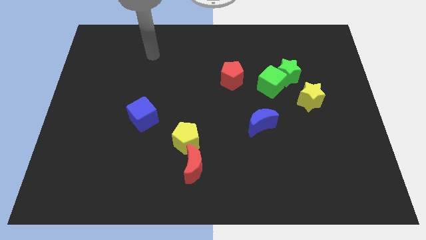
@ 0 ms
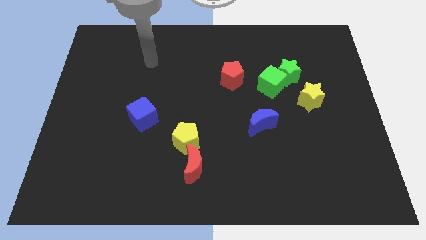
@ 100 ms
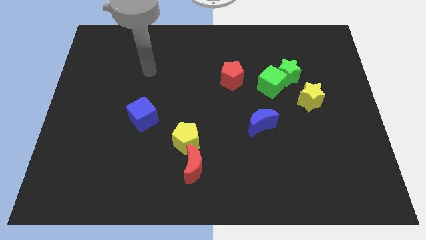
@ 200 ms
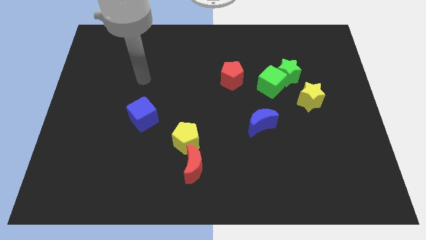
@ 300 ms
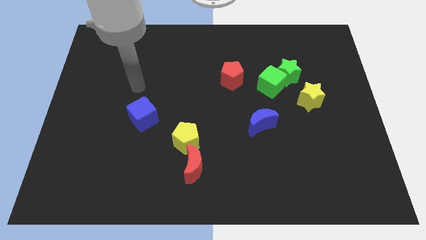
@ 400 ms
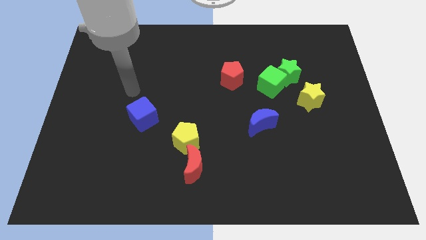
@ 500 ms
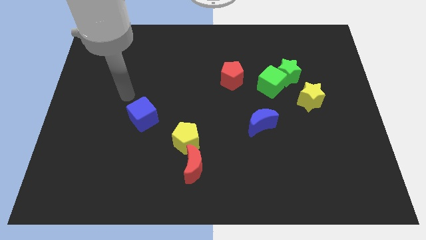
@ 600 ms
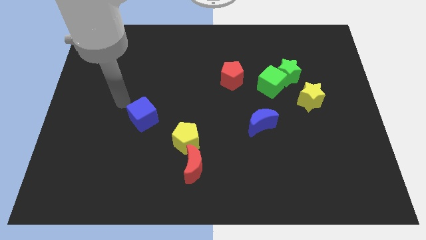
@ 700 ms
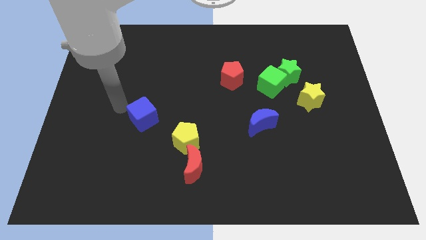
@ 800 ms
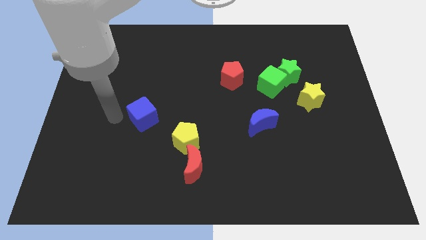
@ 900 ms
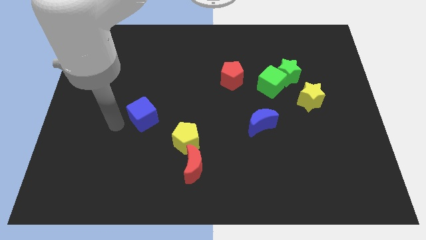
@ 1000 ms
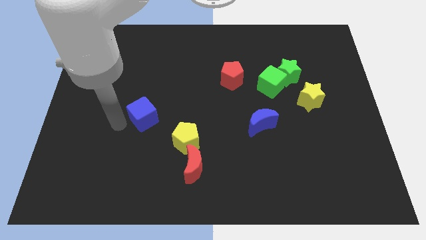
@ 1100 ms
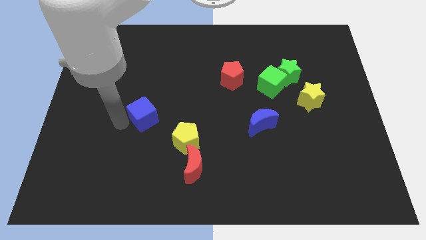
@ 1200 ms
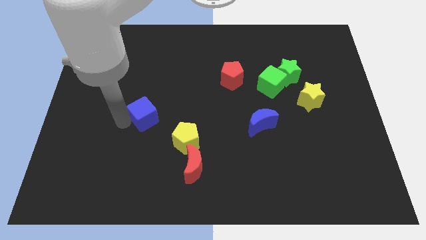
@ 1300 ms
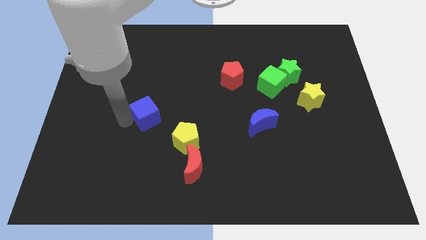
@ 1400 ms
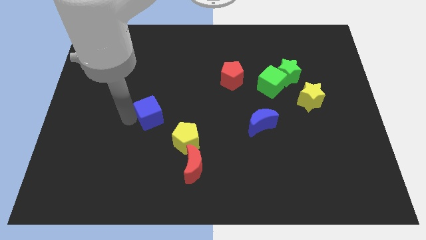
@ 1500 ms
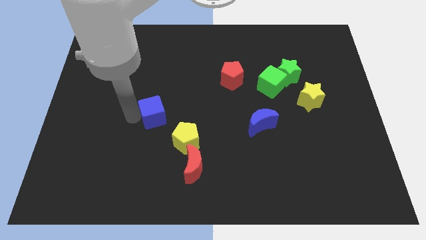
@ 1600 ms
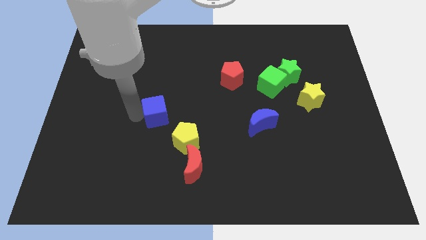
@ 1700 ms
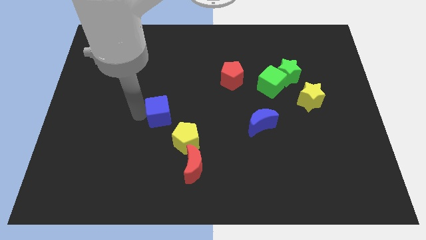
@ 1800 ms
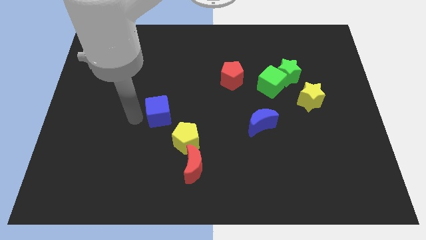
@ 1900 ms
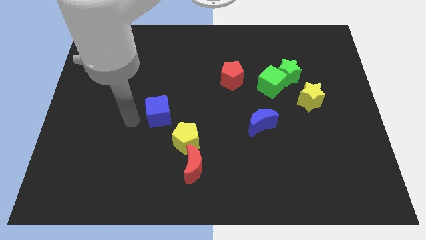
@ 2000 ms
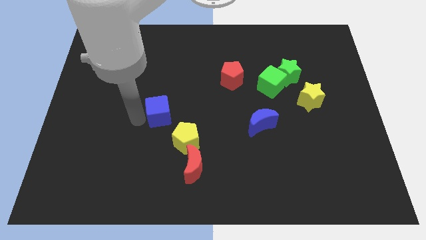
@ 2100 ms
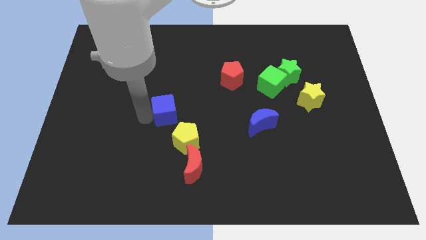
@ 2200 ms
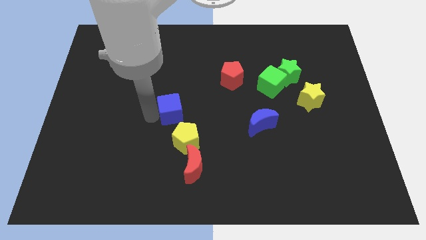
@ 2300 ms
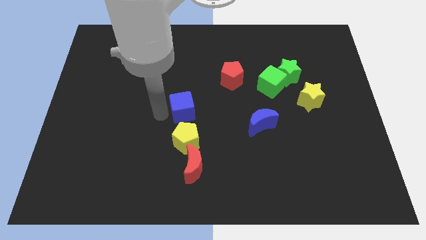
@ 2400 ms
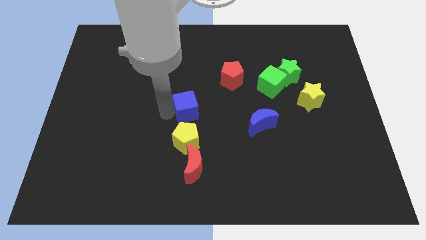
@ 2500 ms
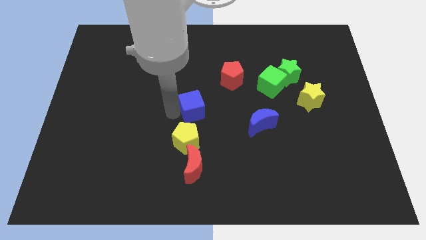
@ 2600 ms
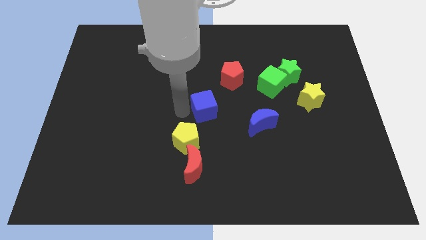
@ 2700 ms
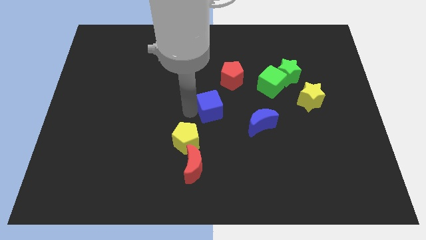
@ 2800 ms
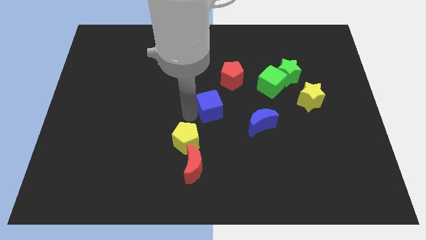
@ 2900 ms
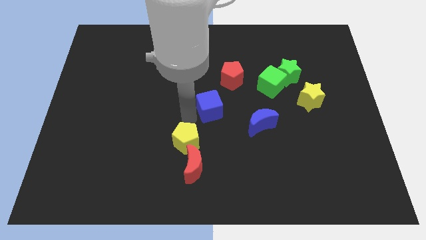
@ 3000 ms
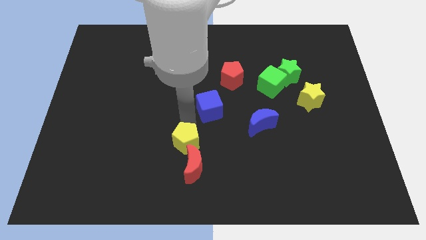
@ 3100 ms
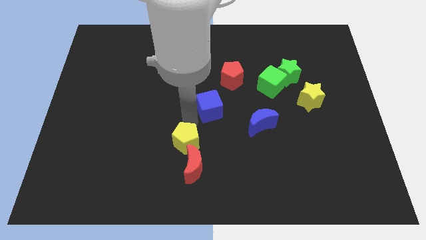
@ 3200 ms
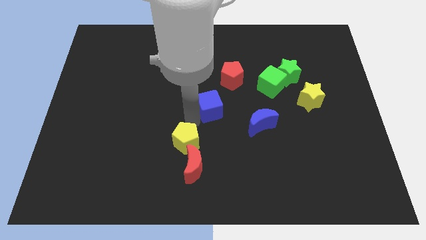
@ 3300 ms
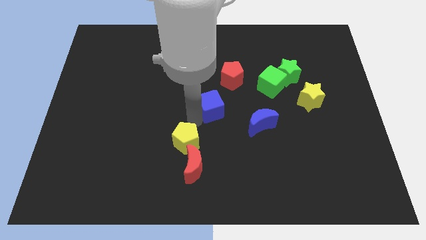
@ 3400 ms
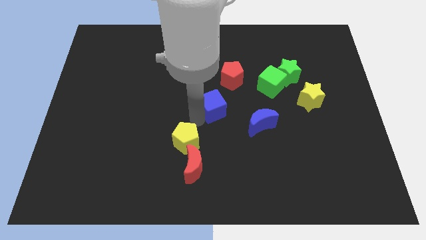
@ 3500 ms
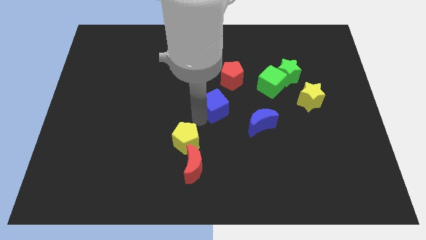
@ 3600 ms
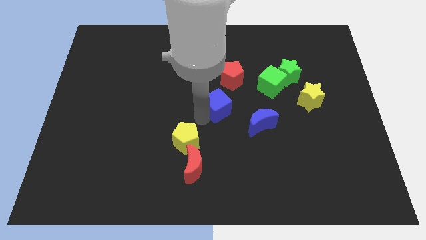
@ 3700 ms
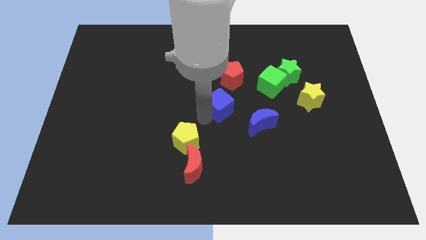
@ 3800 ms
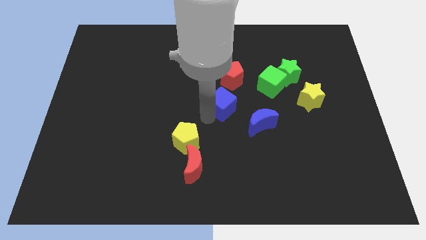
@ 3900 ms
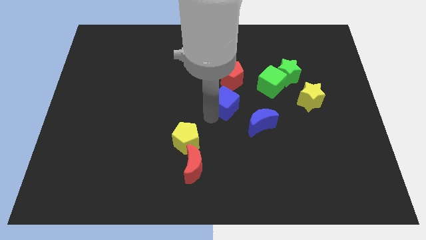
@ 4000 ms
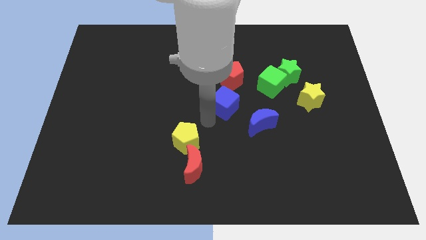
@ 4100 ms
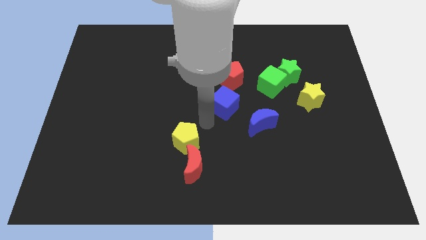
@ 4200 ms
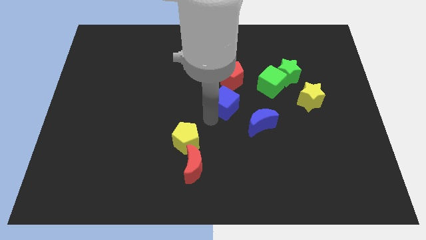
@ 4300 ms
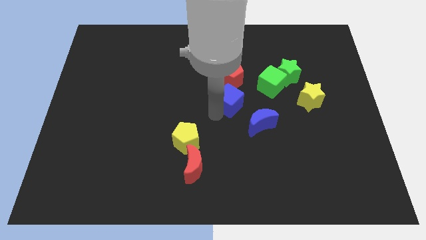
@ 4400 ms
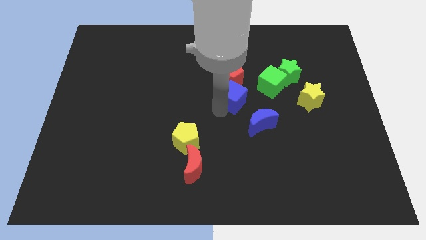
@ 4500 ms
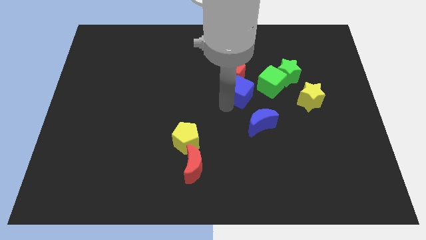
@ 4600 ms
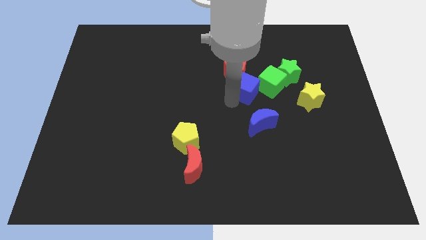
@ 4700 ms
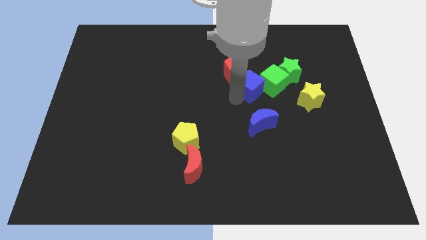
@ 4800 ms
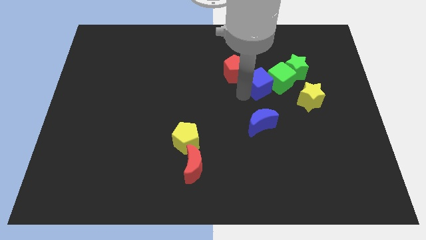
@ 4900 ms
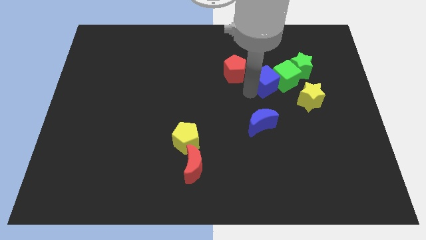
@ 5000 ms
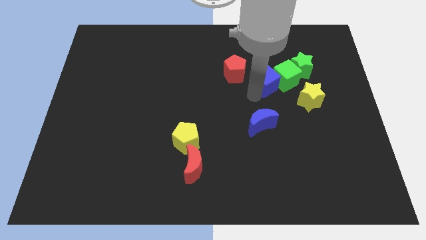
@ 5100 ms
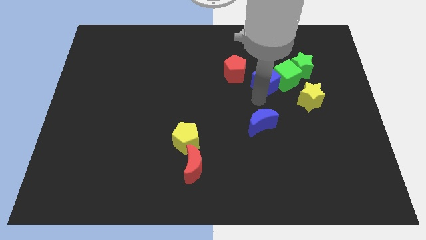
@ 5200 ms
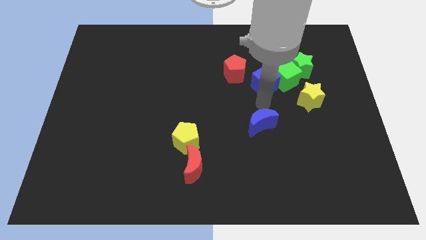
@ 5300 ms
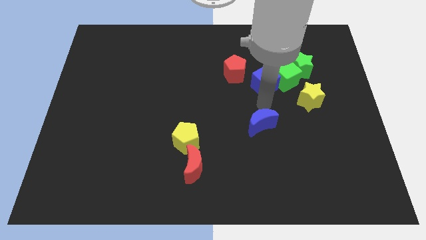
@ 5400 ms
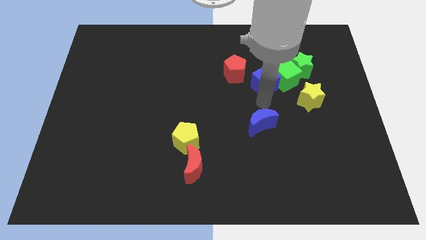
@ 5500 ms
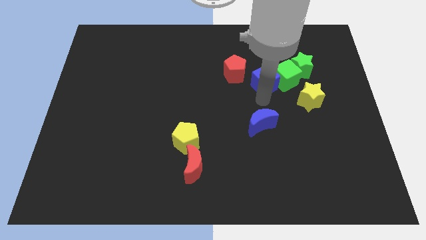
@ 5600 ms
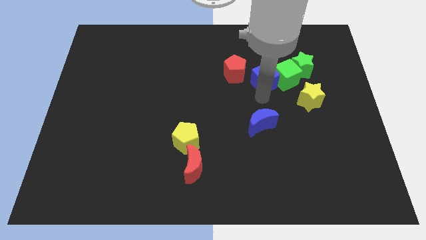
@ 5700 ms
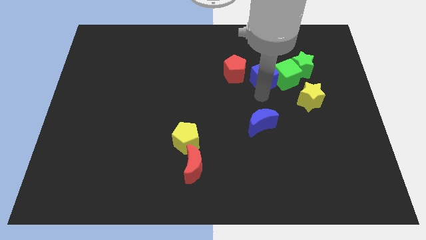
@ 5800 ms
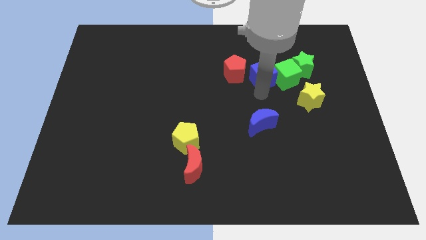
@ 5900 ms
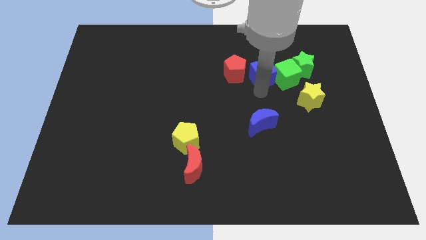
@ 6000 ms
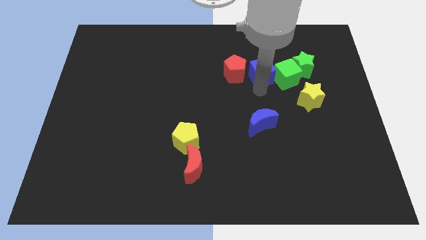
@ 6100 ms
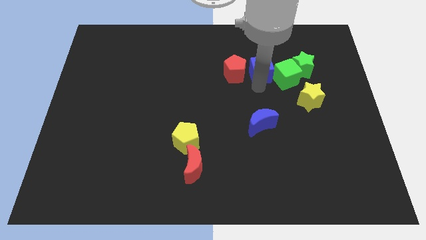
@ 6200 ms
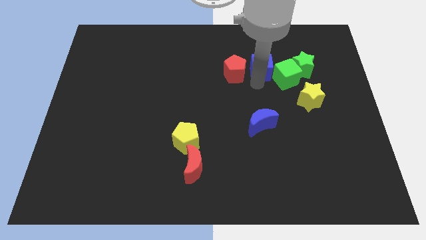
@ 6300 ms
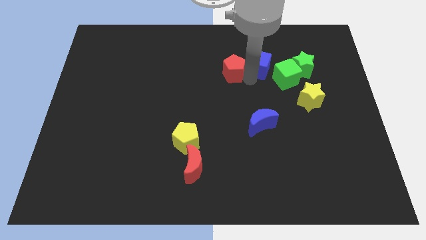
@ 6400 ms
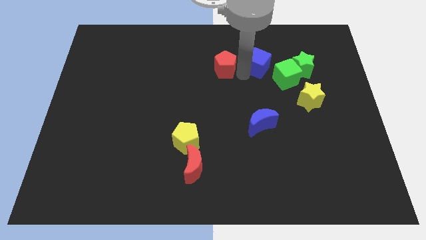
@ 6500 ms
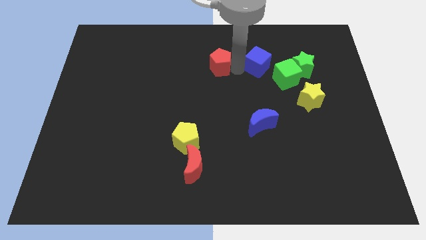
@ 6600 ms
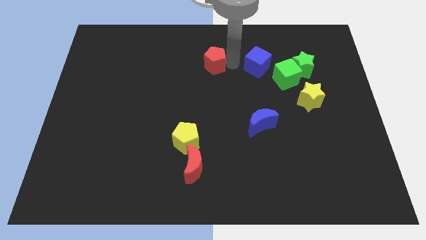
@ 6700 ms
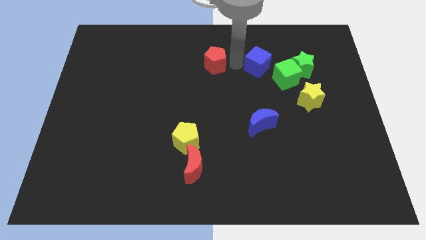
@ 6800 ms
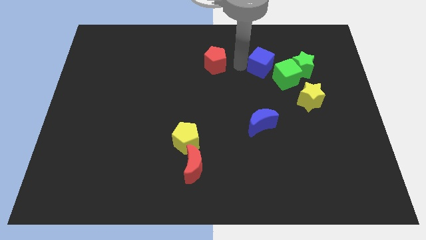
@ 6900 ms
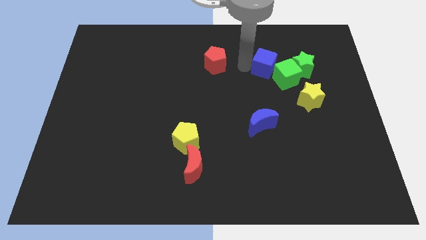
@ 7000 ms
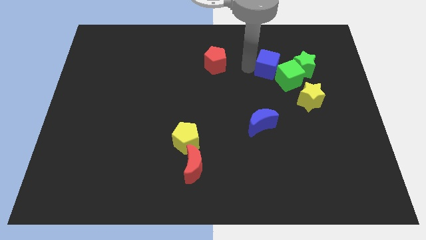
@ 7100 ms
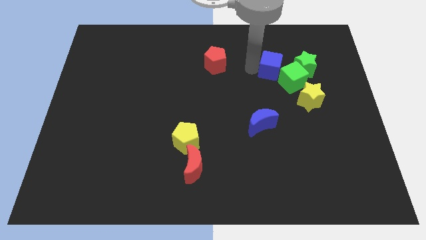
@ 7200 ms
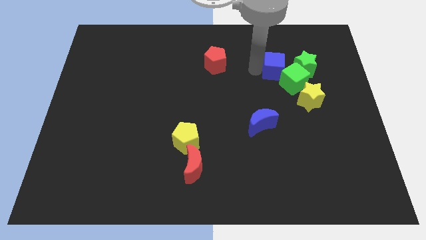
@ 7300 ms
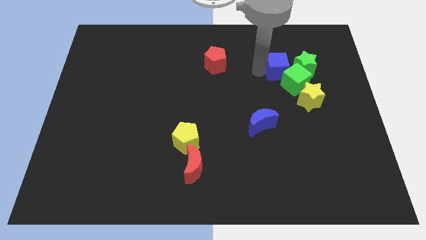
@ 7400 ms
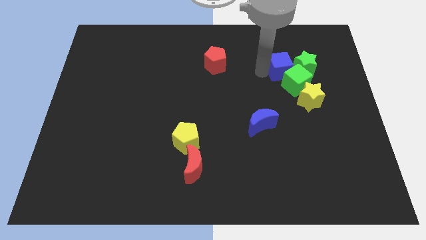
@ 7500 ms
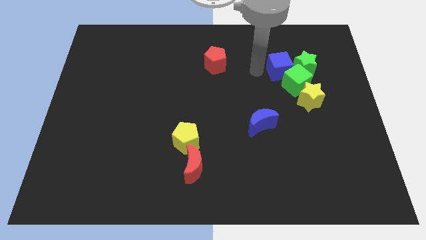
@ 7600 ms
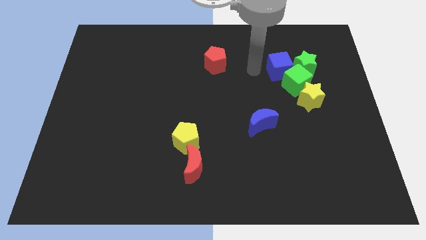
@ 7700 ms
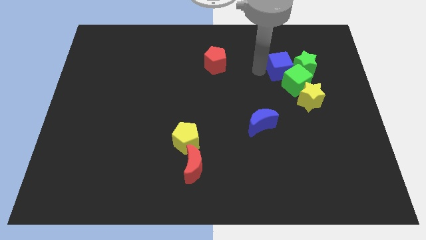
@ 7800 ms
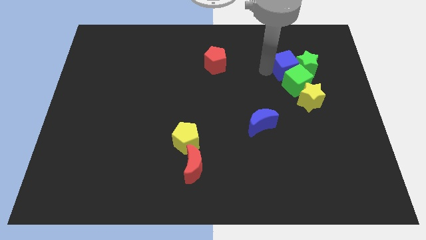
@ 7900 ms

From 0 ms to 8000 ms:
slide the blue cube to the green star
